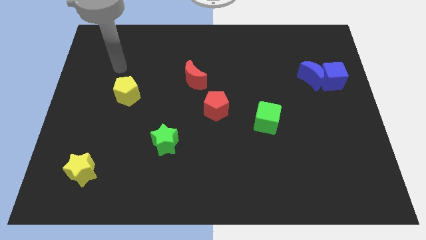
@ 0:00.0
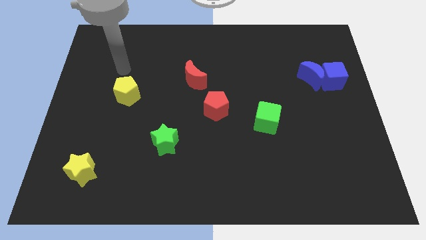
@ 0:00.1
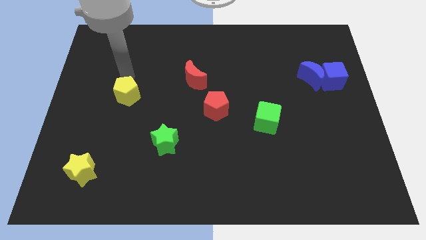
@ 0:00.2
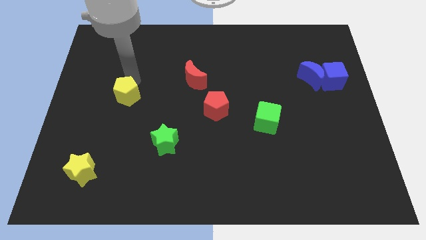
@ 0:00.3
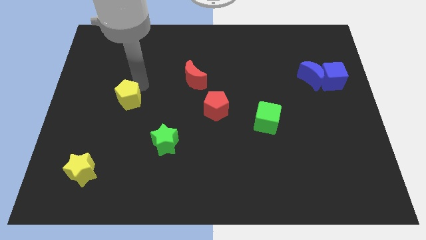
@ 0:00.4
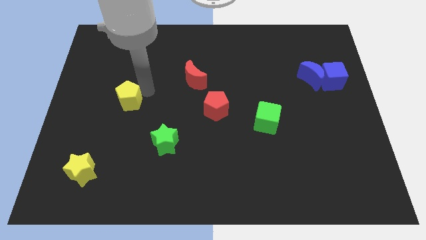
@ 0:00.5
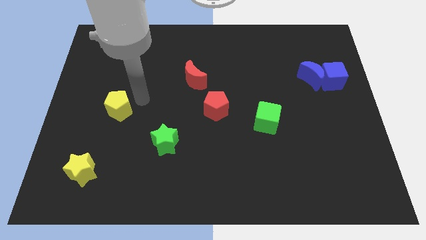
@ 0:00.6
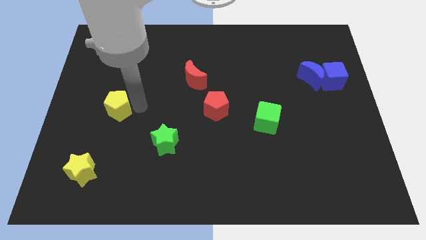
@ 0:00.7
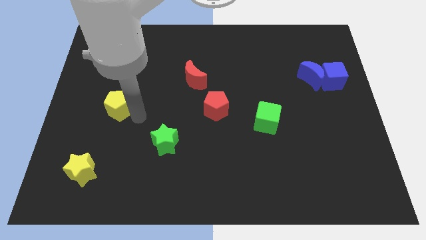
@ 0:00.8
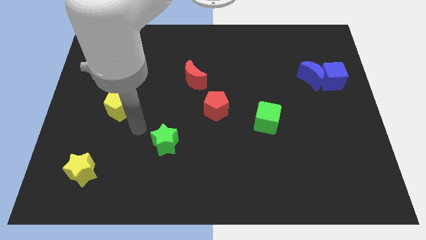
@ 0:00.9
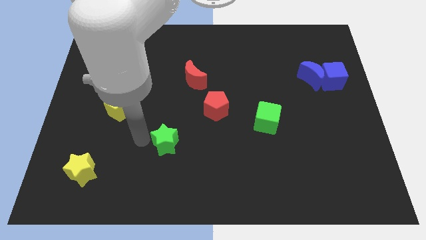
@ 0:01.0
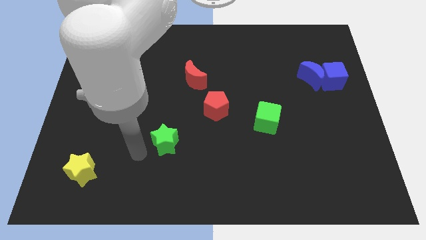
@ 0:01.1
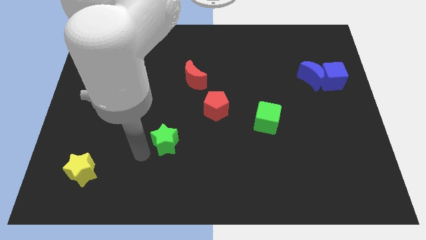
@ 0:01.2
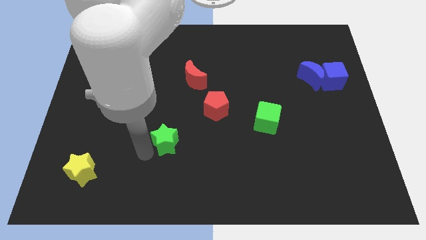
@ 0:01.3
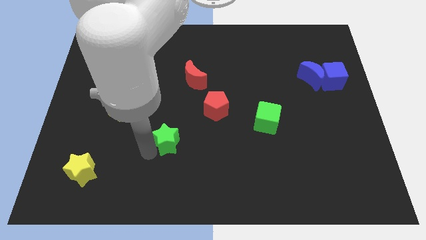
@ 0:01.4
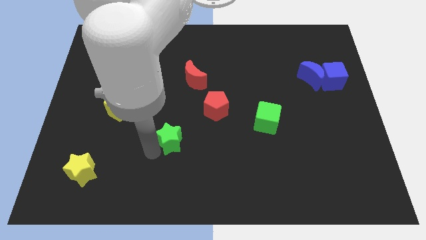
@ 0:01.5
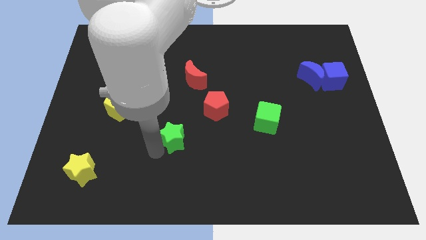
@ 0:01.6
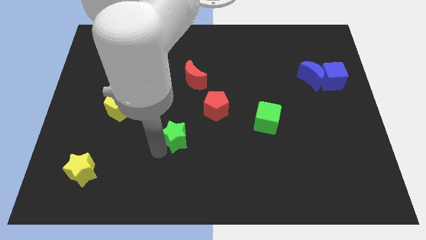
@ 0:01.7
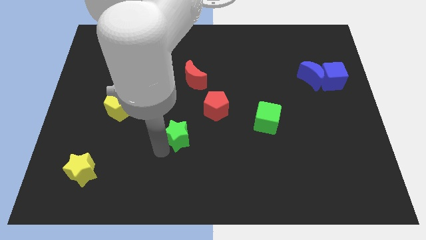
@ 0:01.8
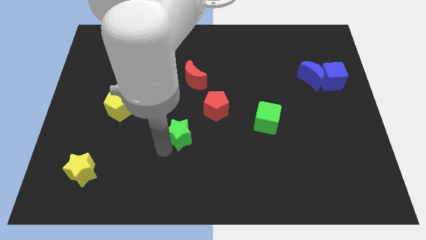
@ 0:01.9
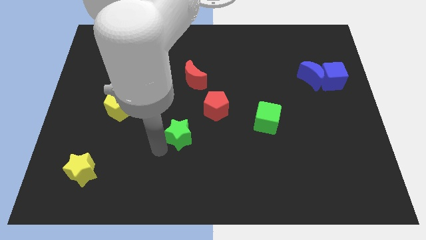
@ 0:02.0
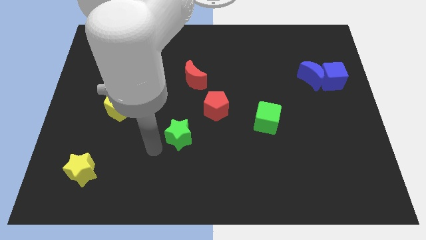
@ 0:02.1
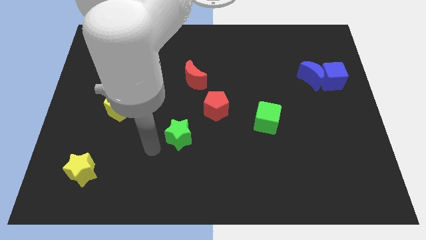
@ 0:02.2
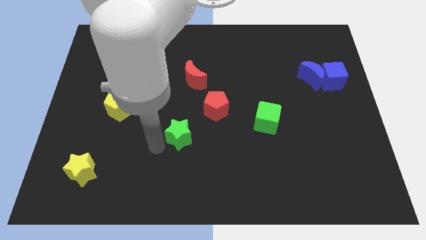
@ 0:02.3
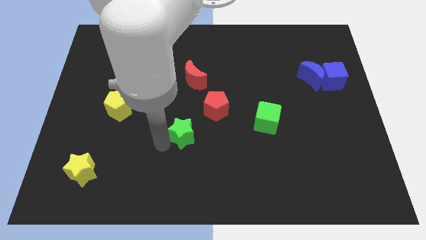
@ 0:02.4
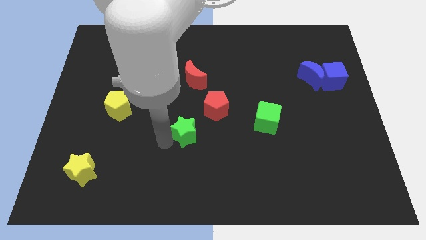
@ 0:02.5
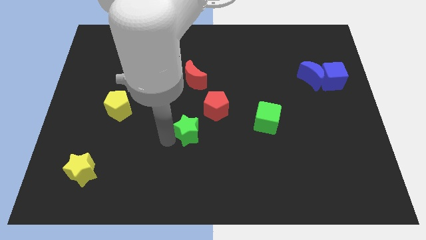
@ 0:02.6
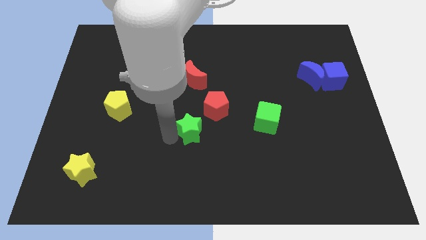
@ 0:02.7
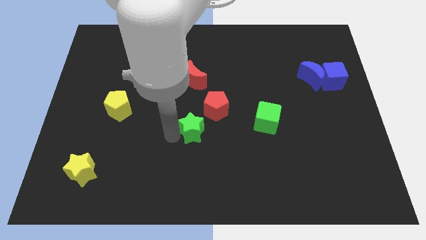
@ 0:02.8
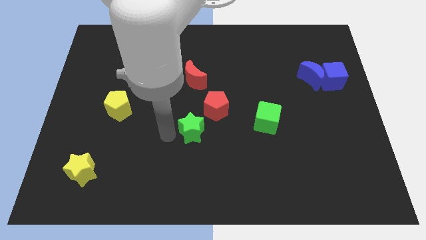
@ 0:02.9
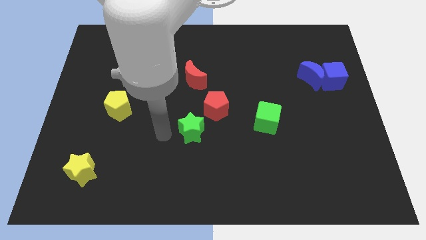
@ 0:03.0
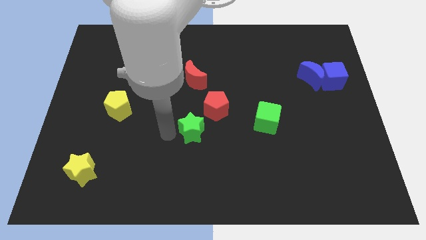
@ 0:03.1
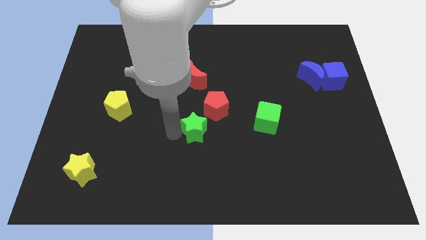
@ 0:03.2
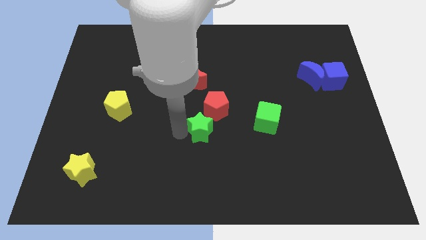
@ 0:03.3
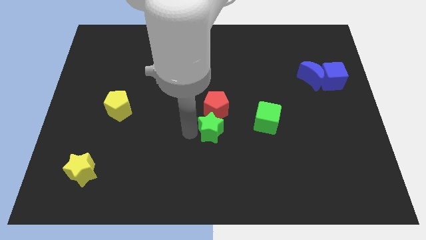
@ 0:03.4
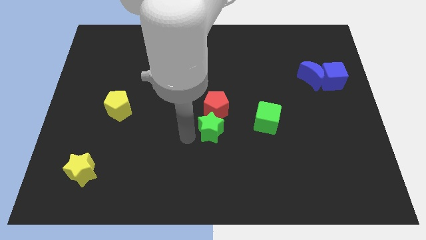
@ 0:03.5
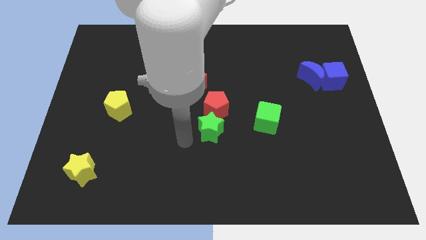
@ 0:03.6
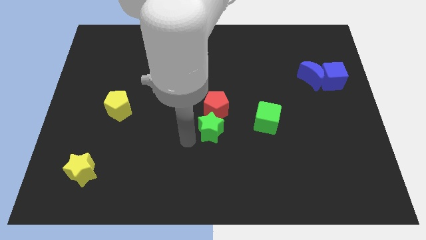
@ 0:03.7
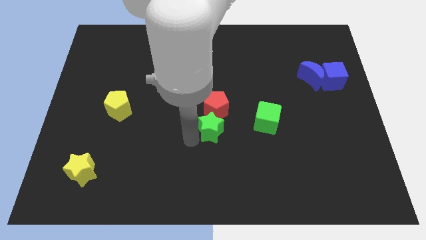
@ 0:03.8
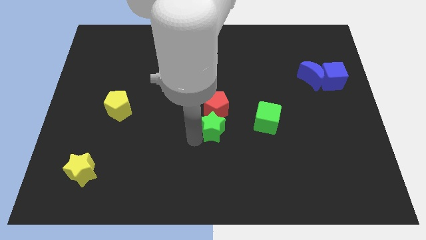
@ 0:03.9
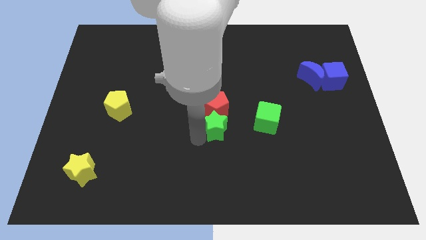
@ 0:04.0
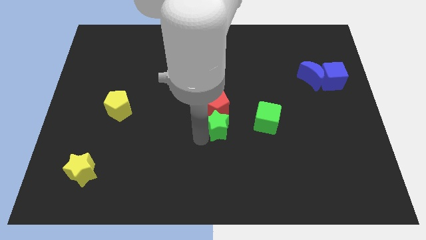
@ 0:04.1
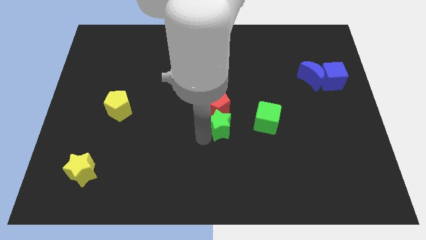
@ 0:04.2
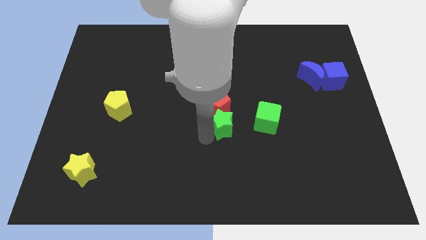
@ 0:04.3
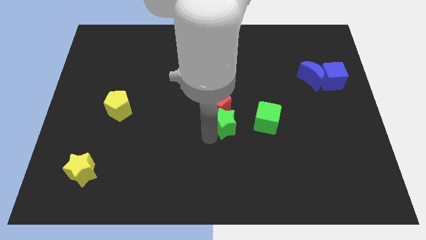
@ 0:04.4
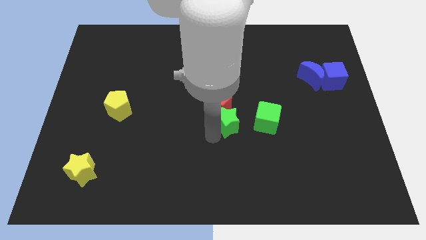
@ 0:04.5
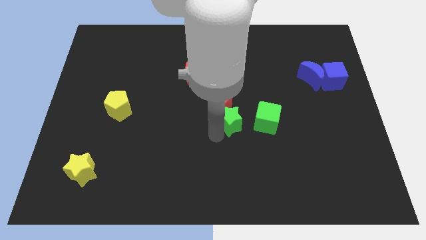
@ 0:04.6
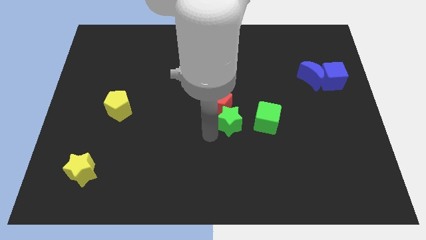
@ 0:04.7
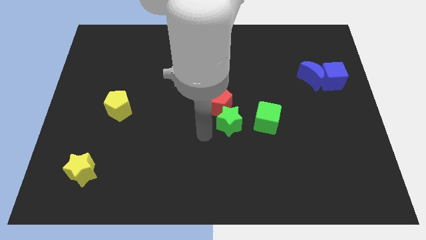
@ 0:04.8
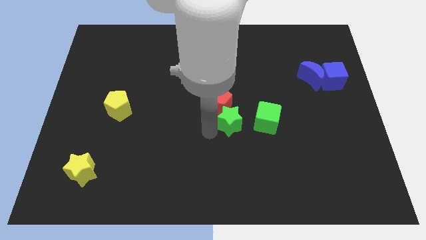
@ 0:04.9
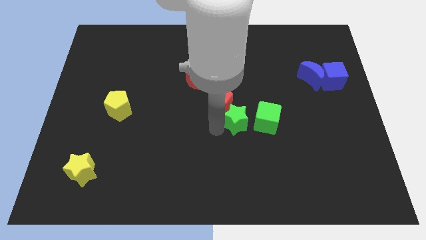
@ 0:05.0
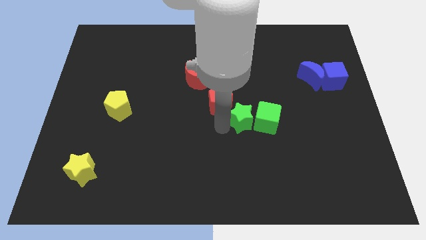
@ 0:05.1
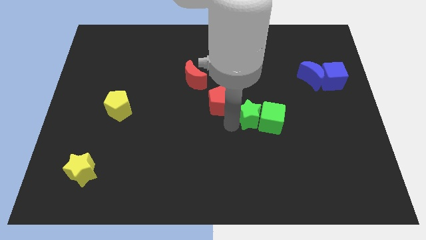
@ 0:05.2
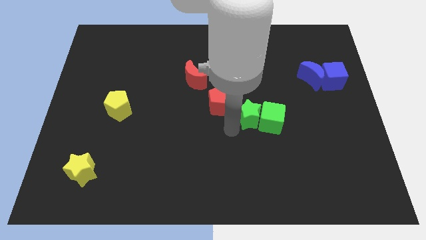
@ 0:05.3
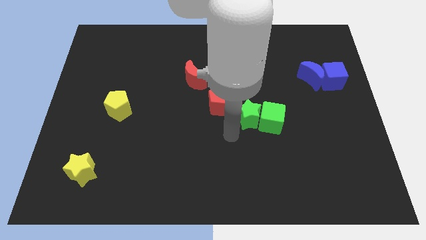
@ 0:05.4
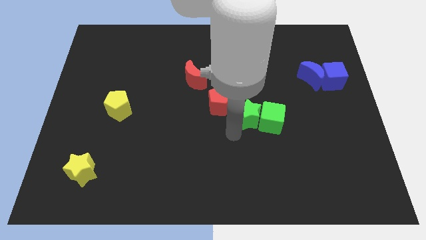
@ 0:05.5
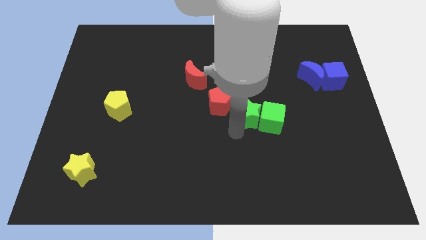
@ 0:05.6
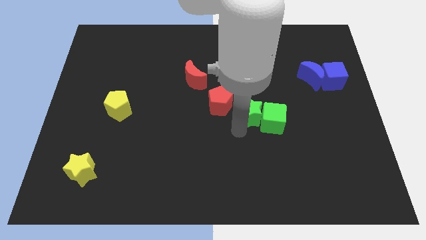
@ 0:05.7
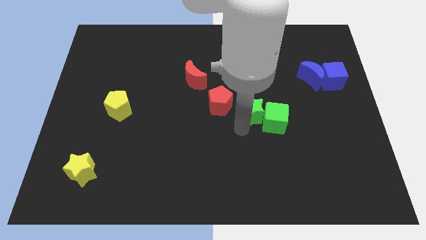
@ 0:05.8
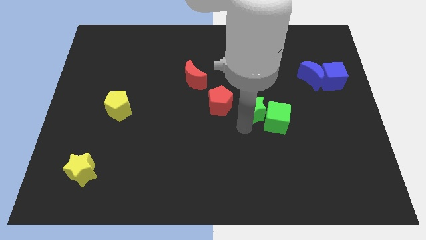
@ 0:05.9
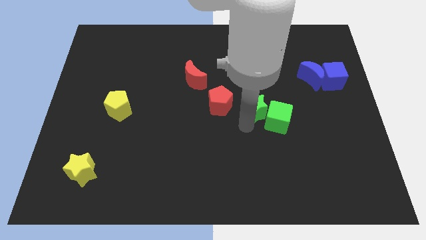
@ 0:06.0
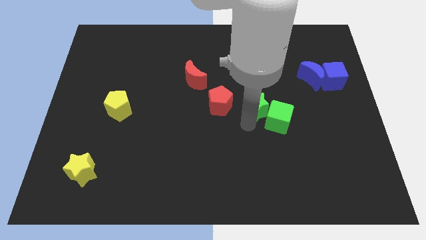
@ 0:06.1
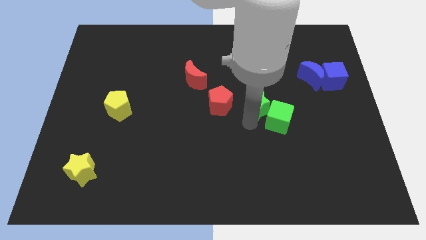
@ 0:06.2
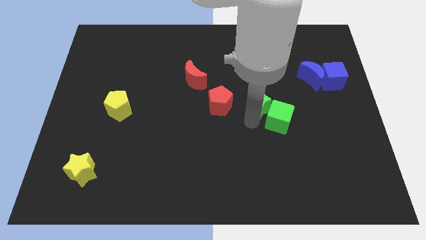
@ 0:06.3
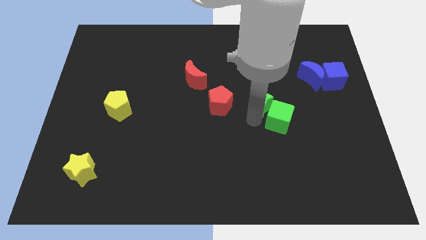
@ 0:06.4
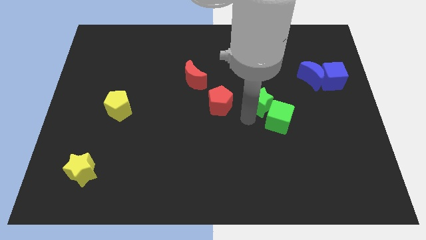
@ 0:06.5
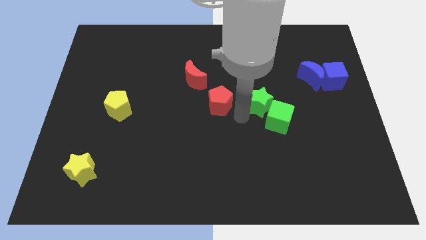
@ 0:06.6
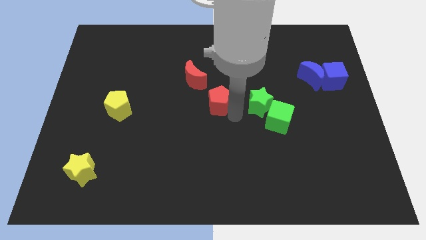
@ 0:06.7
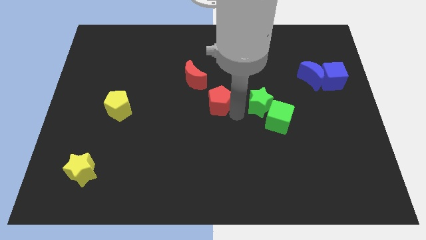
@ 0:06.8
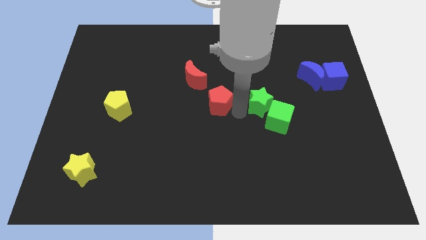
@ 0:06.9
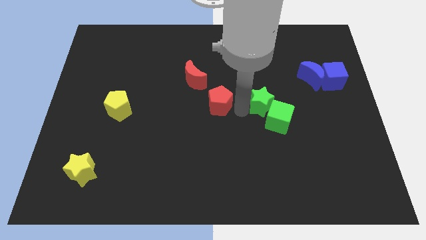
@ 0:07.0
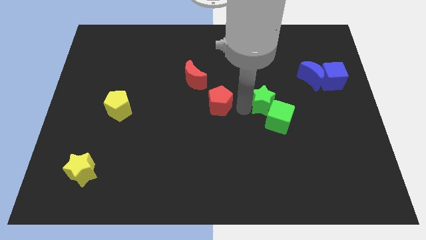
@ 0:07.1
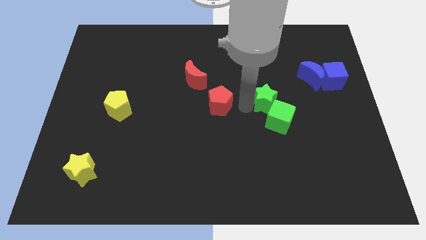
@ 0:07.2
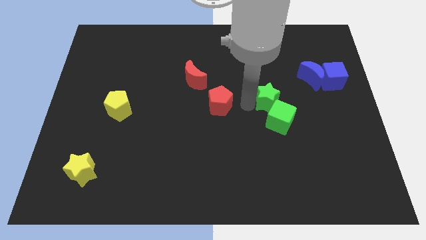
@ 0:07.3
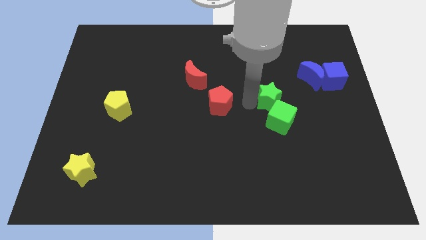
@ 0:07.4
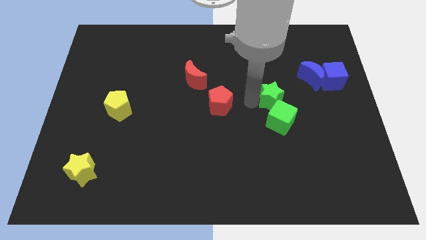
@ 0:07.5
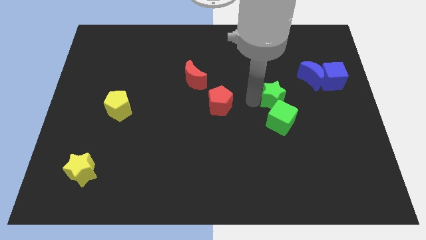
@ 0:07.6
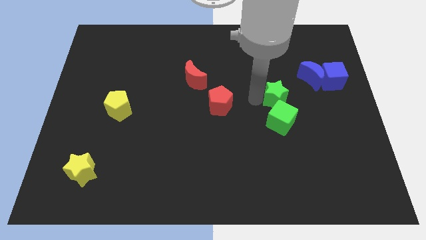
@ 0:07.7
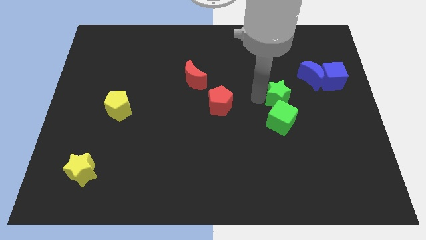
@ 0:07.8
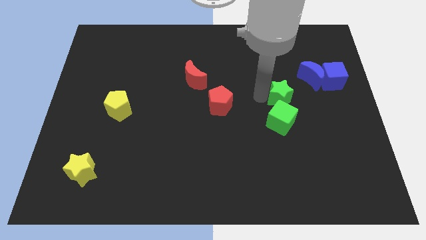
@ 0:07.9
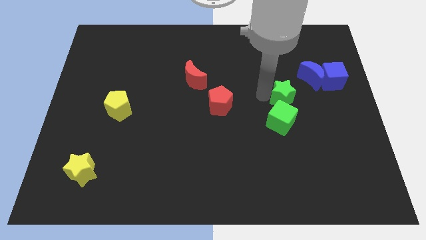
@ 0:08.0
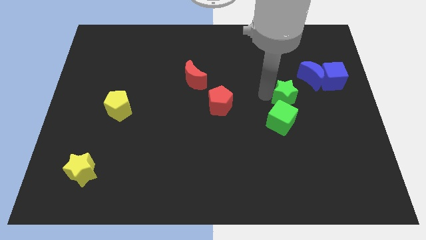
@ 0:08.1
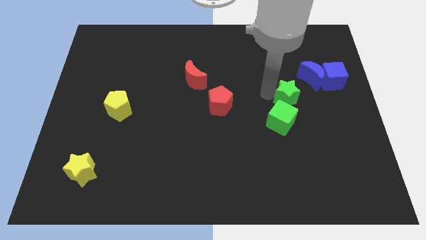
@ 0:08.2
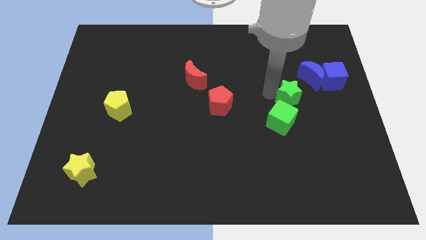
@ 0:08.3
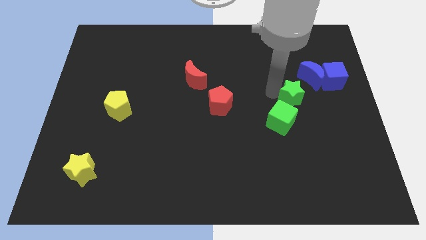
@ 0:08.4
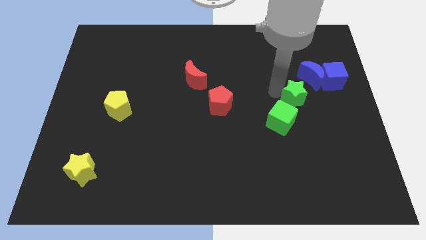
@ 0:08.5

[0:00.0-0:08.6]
move the green star to the bottom left side of the blue cube
